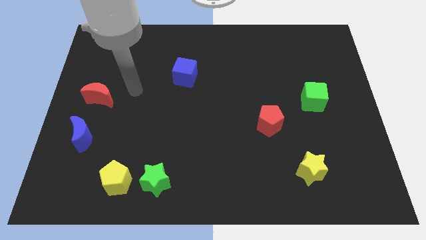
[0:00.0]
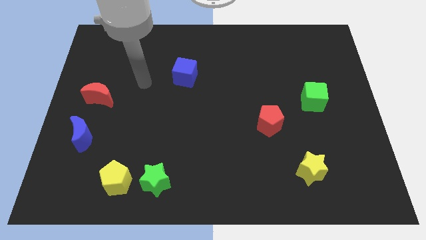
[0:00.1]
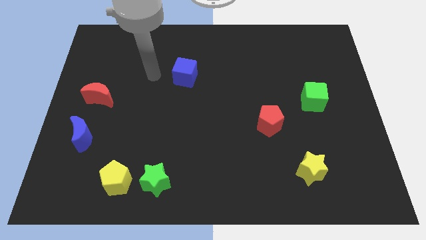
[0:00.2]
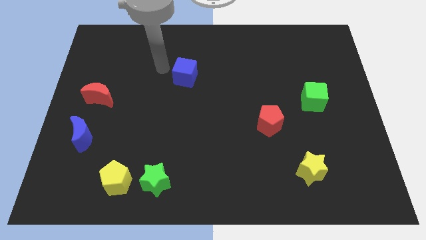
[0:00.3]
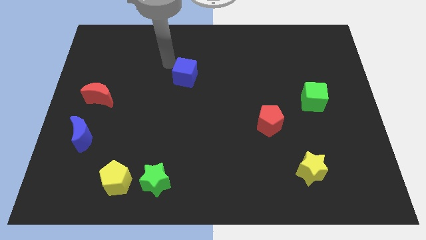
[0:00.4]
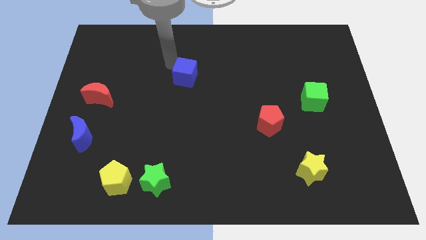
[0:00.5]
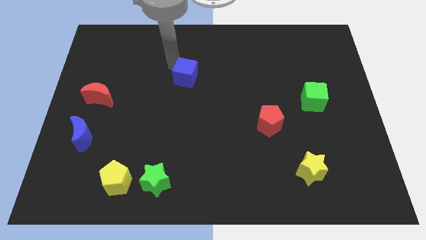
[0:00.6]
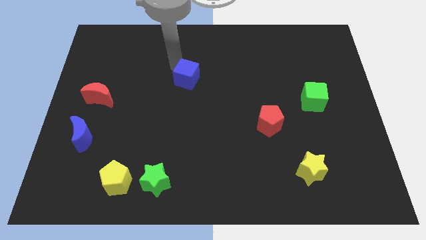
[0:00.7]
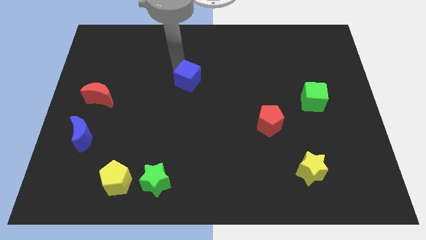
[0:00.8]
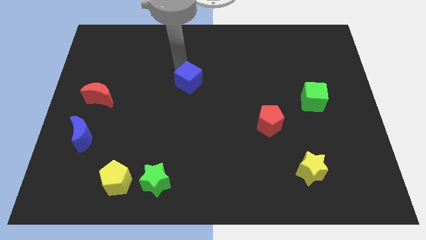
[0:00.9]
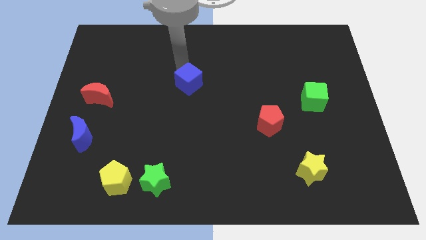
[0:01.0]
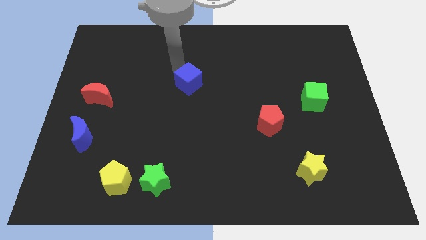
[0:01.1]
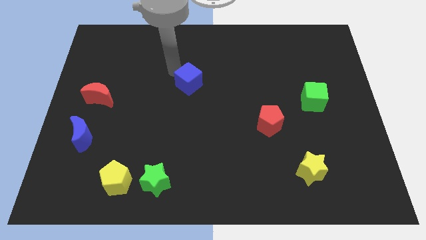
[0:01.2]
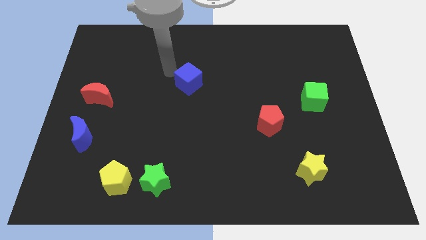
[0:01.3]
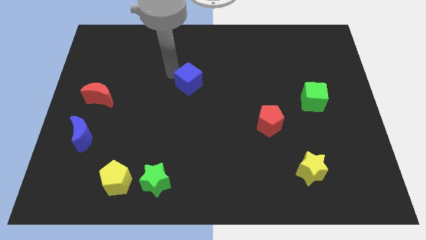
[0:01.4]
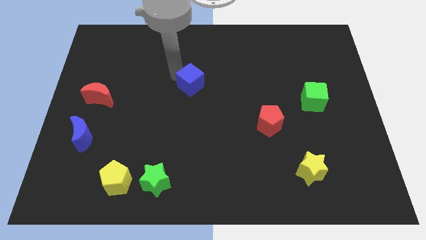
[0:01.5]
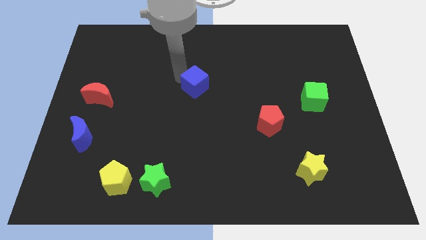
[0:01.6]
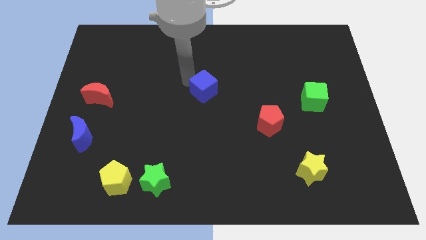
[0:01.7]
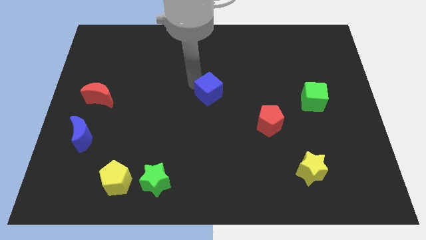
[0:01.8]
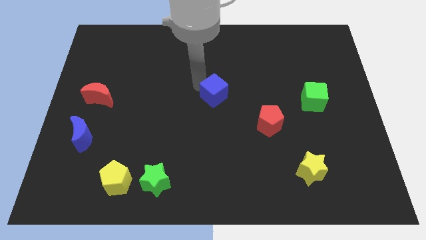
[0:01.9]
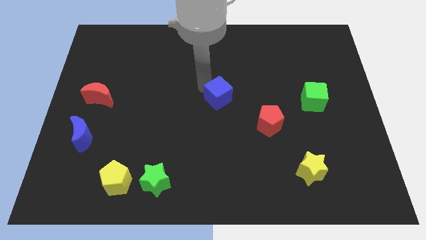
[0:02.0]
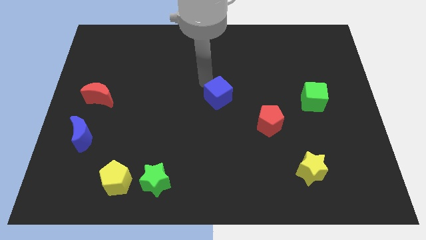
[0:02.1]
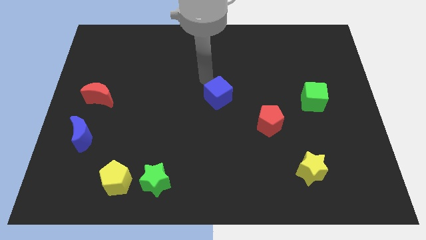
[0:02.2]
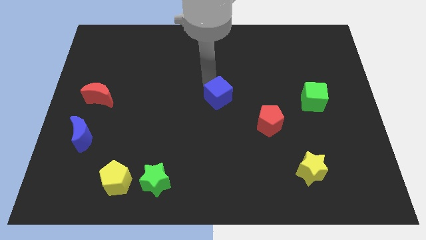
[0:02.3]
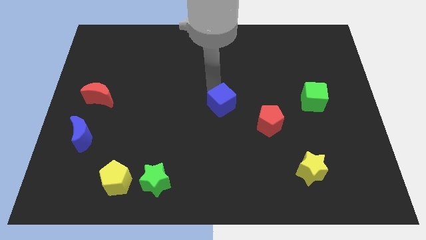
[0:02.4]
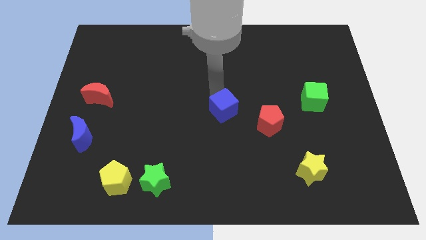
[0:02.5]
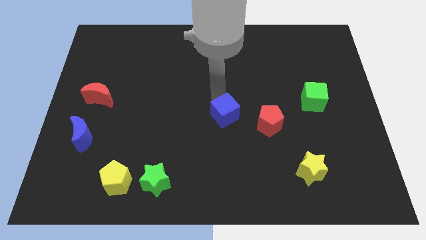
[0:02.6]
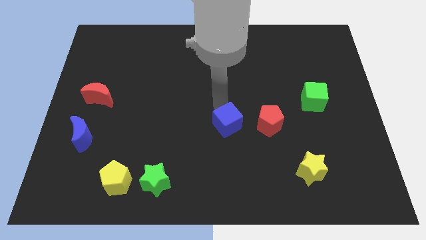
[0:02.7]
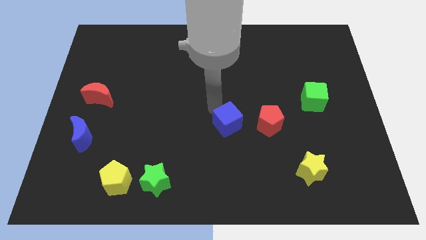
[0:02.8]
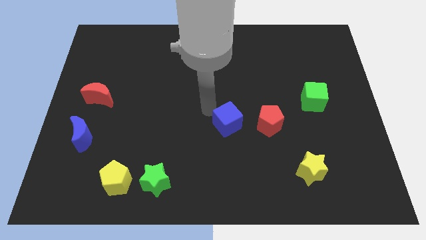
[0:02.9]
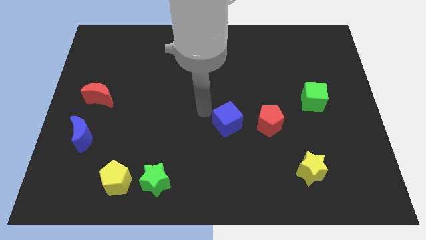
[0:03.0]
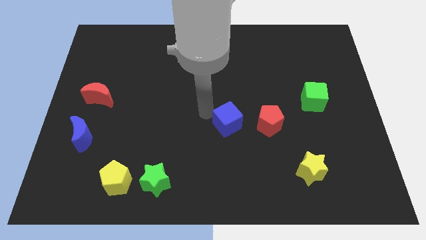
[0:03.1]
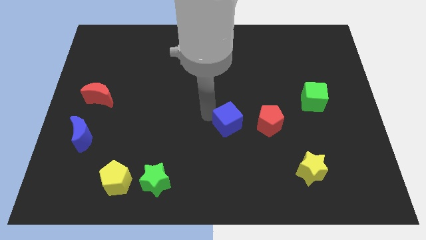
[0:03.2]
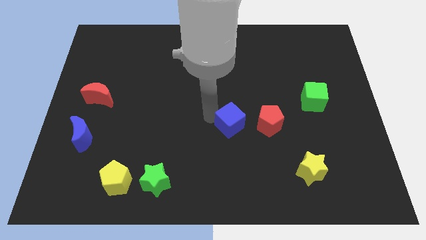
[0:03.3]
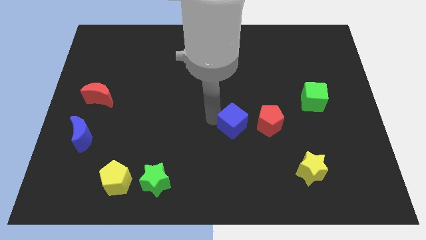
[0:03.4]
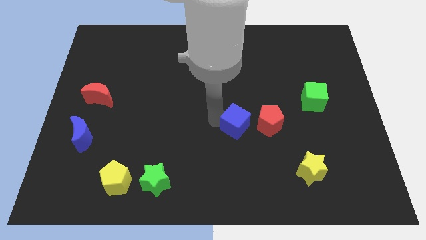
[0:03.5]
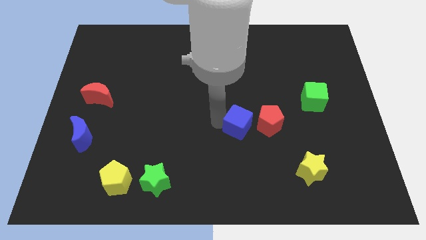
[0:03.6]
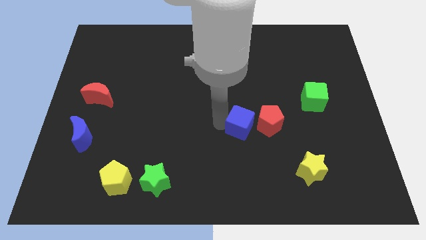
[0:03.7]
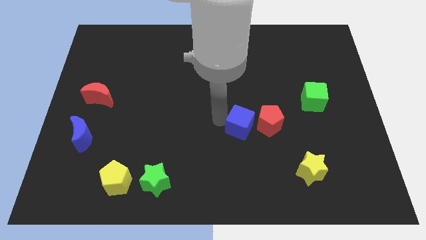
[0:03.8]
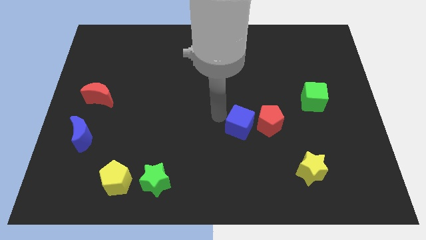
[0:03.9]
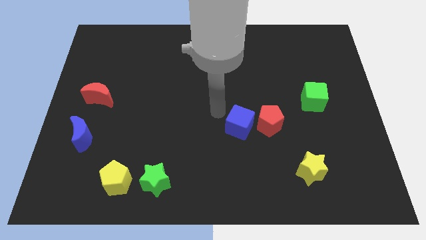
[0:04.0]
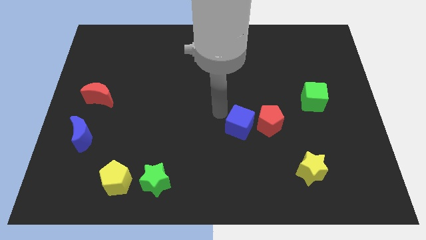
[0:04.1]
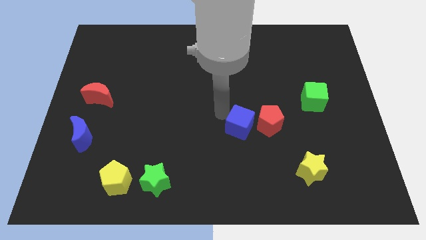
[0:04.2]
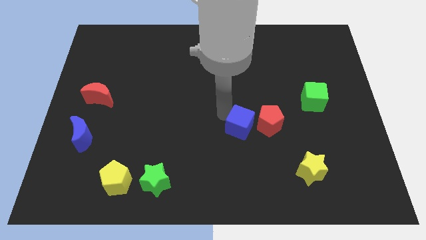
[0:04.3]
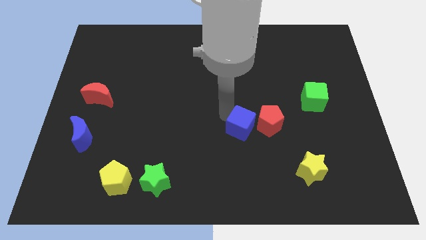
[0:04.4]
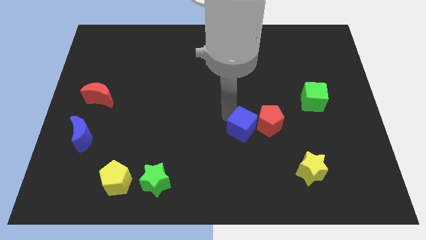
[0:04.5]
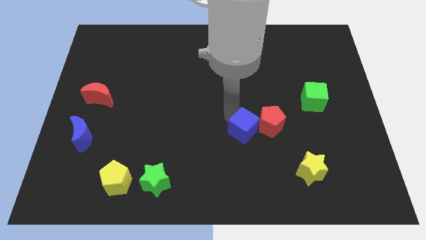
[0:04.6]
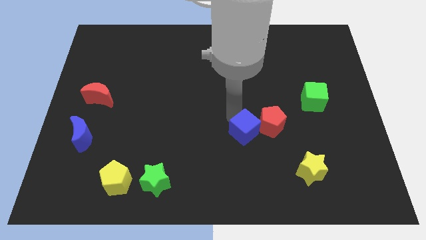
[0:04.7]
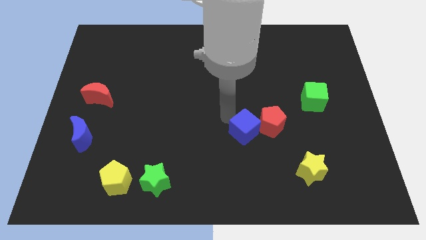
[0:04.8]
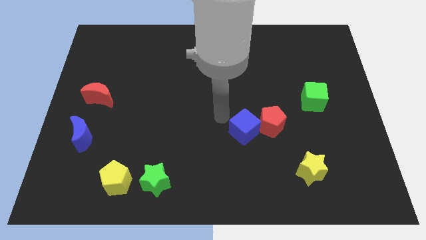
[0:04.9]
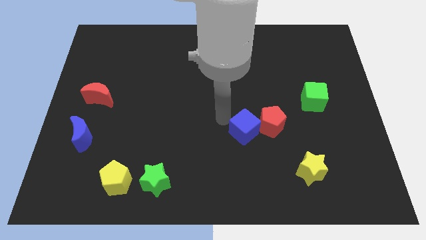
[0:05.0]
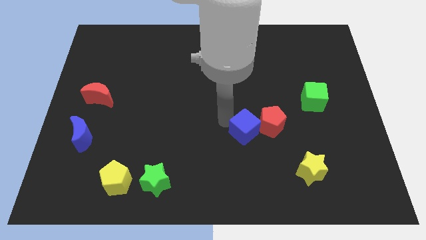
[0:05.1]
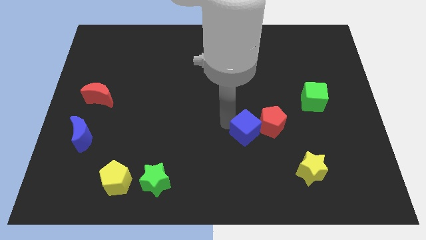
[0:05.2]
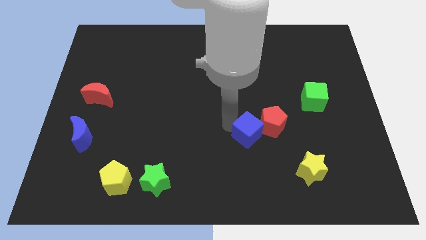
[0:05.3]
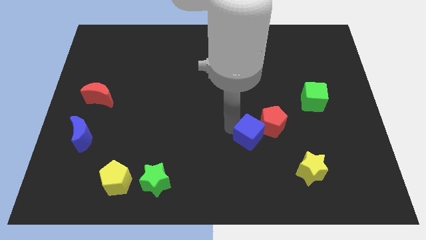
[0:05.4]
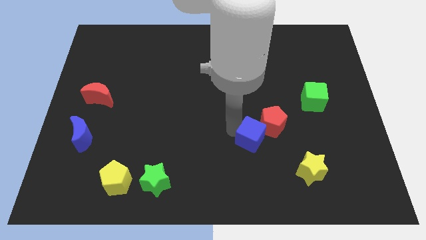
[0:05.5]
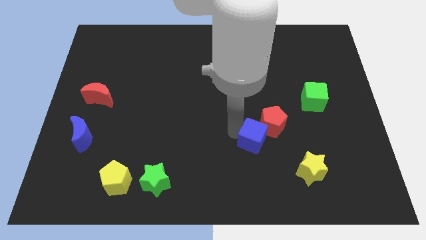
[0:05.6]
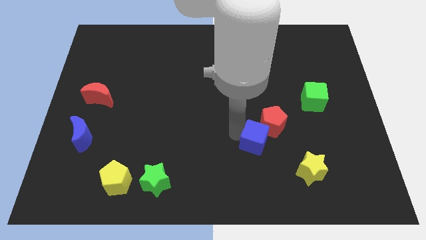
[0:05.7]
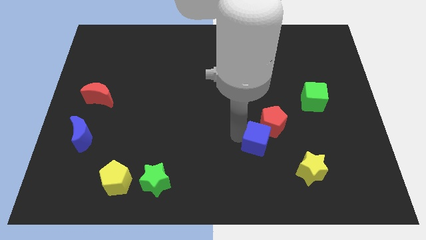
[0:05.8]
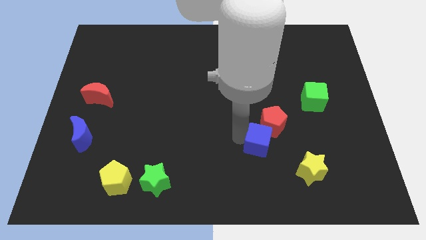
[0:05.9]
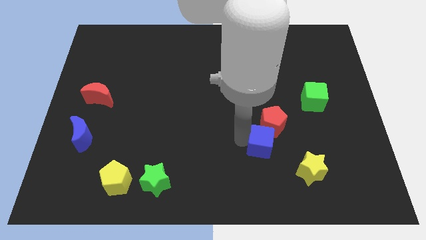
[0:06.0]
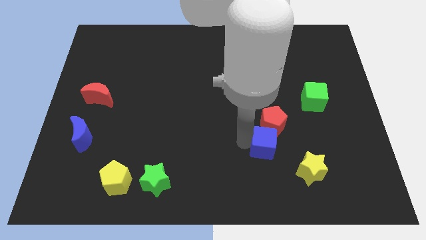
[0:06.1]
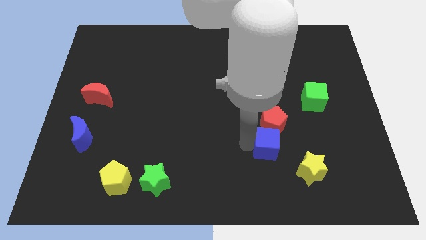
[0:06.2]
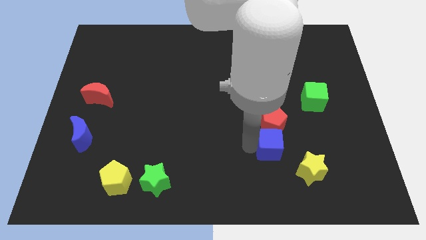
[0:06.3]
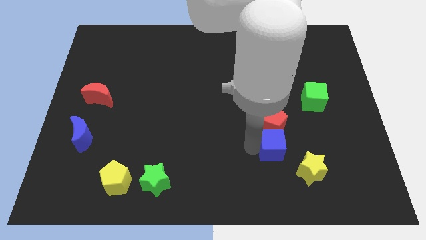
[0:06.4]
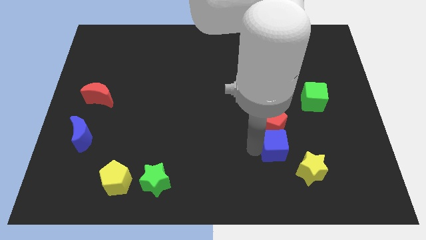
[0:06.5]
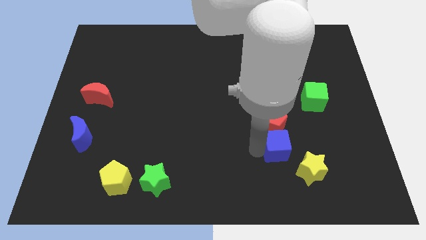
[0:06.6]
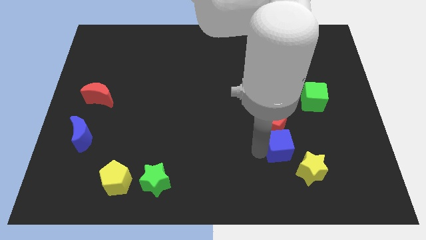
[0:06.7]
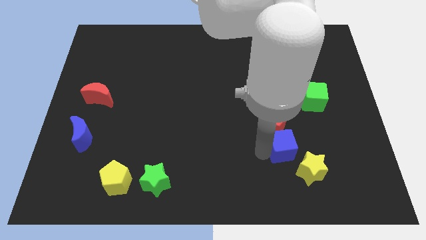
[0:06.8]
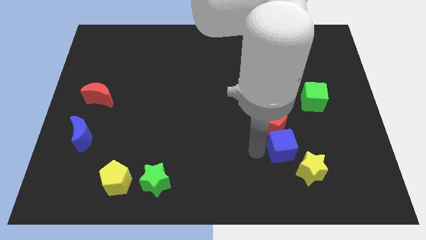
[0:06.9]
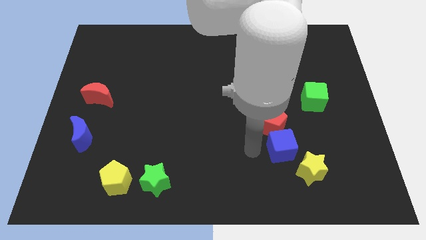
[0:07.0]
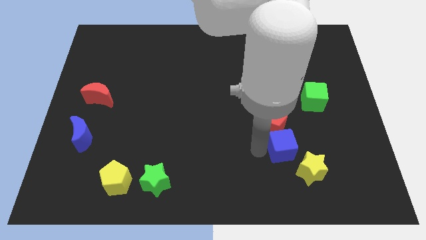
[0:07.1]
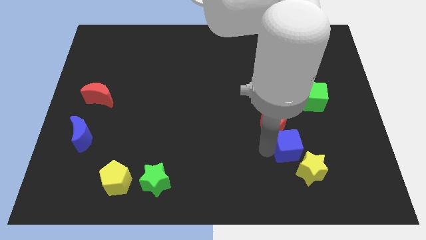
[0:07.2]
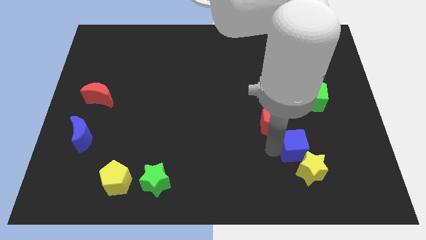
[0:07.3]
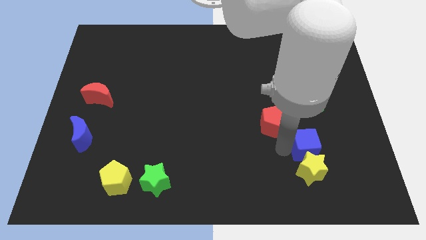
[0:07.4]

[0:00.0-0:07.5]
slide the blue cube diagonally up and to the right of the yellow star

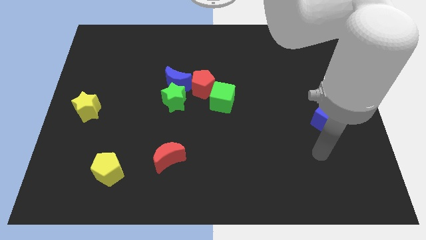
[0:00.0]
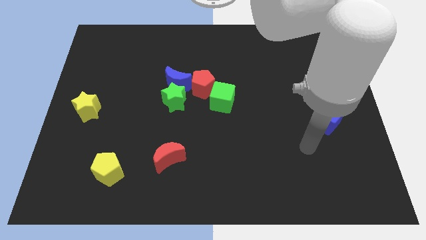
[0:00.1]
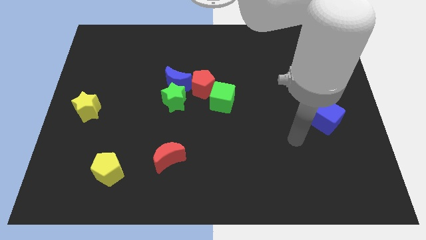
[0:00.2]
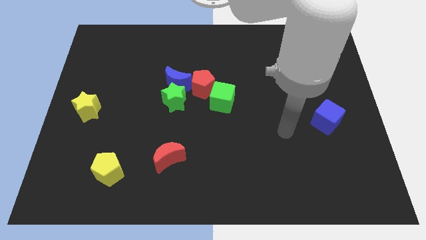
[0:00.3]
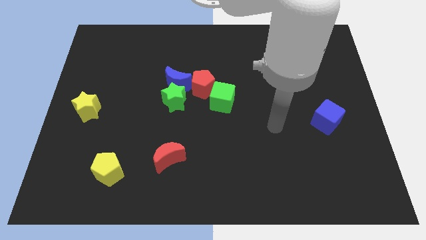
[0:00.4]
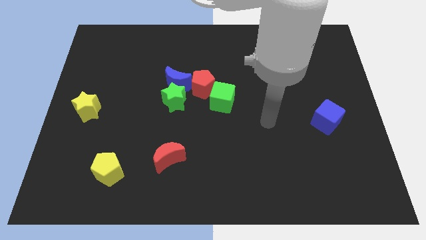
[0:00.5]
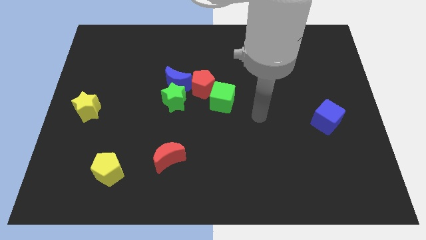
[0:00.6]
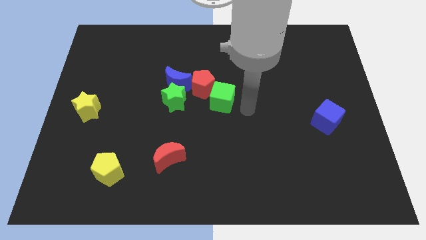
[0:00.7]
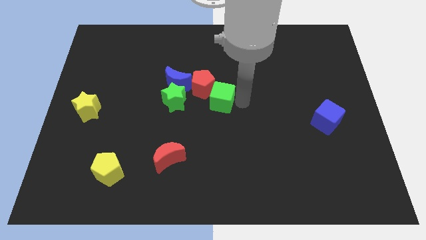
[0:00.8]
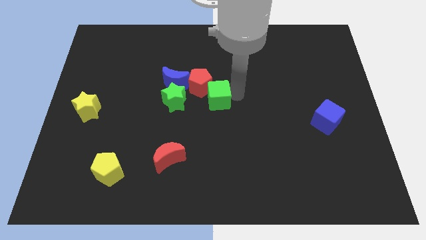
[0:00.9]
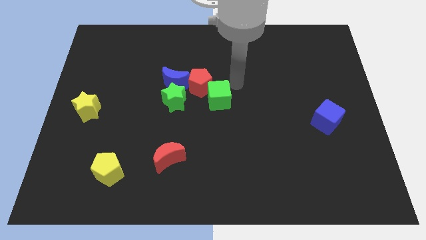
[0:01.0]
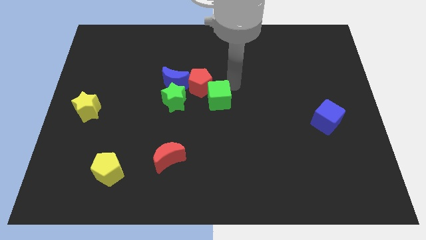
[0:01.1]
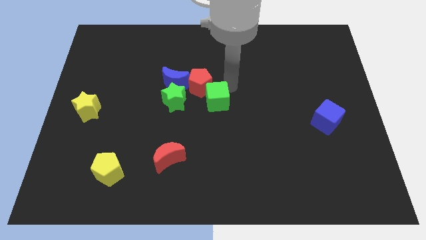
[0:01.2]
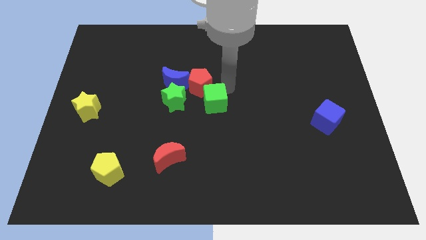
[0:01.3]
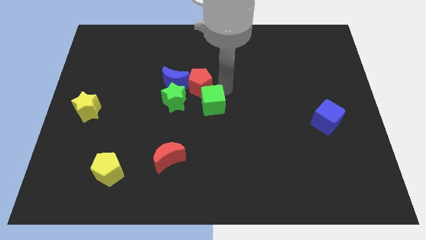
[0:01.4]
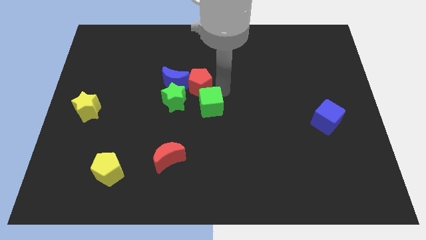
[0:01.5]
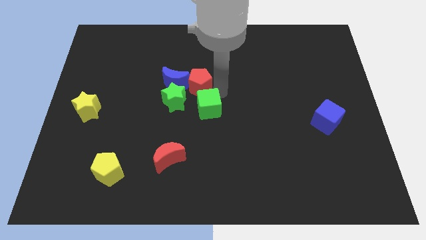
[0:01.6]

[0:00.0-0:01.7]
push the green cube to the bottom right side of the green star
